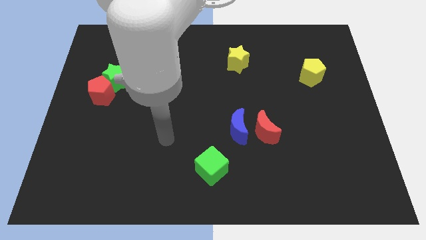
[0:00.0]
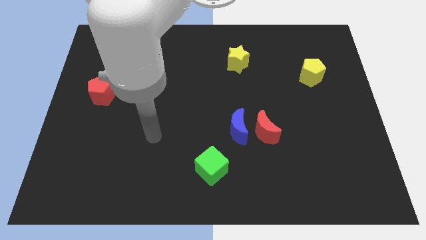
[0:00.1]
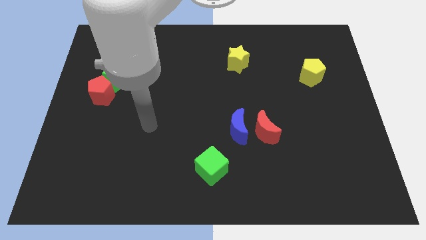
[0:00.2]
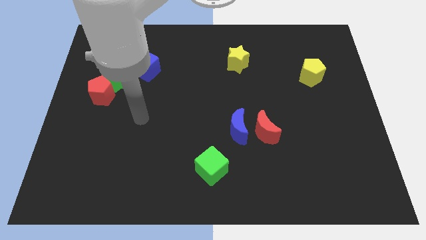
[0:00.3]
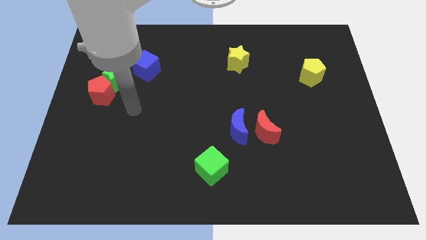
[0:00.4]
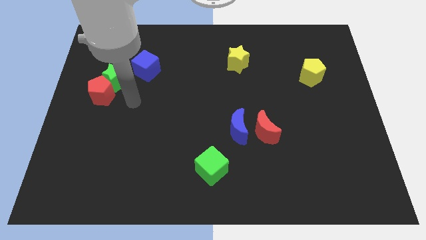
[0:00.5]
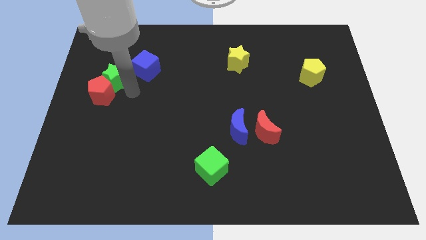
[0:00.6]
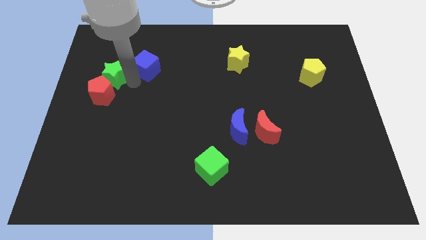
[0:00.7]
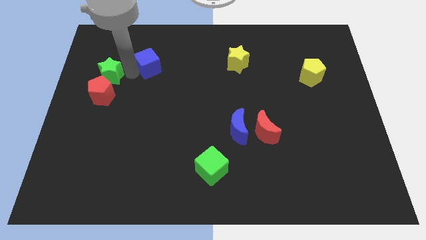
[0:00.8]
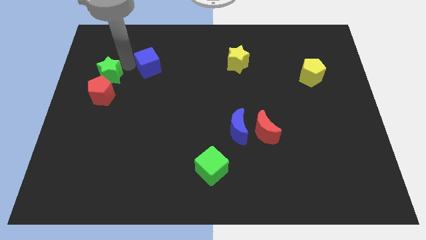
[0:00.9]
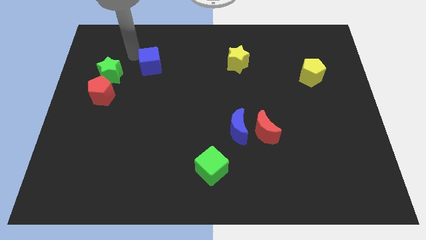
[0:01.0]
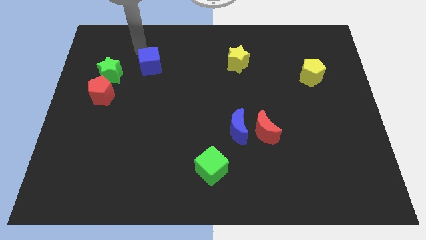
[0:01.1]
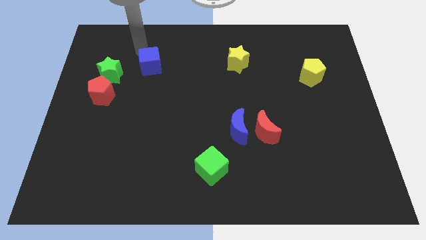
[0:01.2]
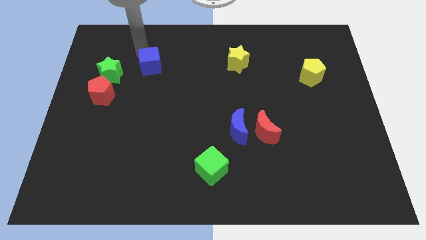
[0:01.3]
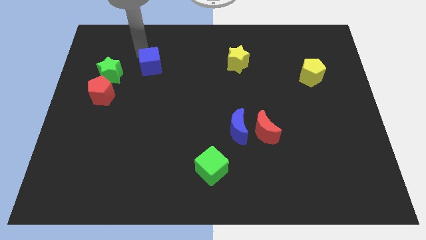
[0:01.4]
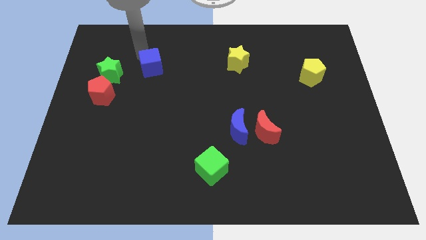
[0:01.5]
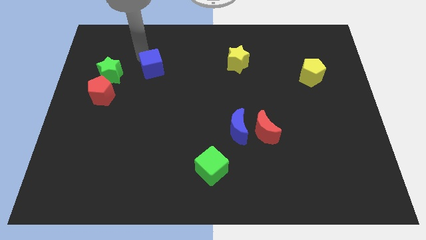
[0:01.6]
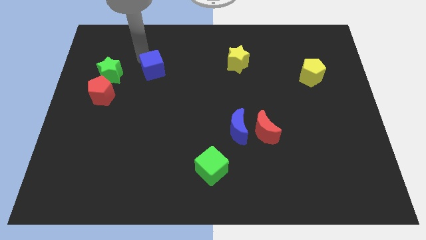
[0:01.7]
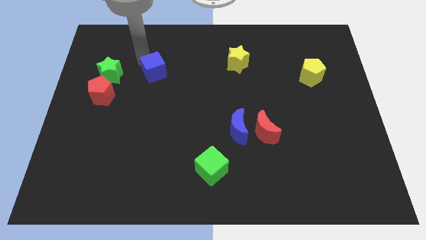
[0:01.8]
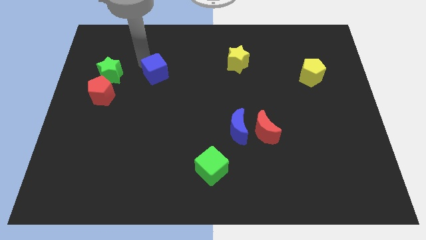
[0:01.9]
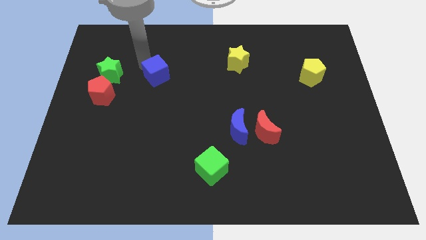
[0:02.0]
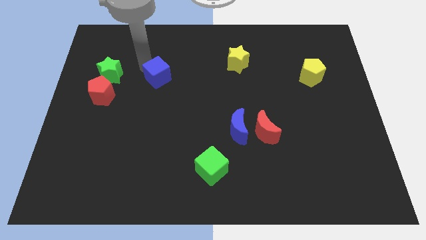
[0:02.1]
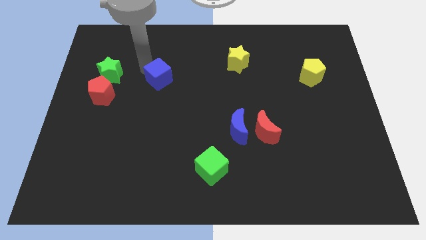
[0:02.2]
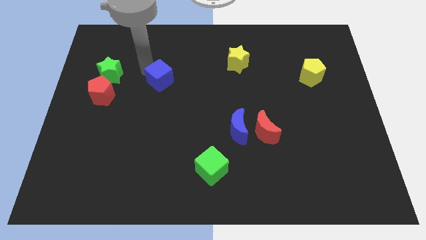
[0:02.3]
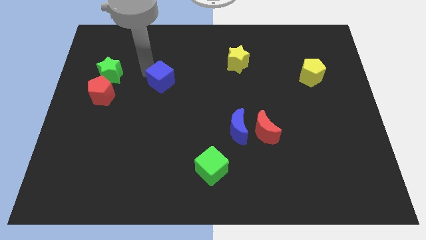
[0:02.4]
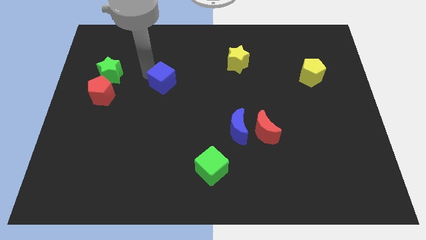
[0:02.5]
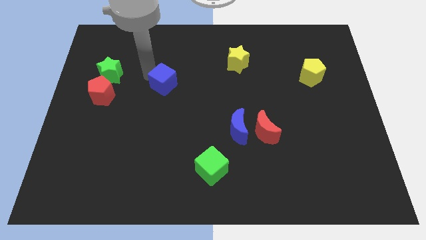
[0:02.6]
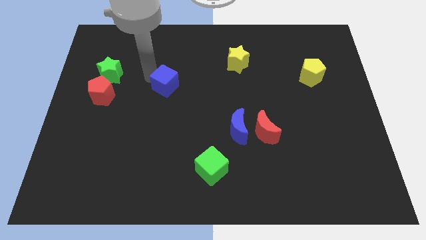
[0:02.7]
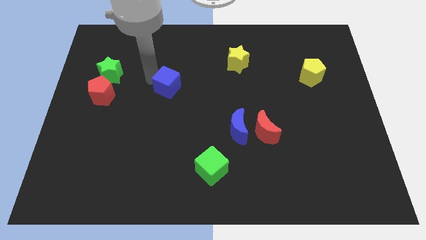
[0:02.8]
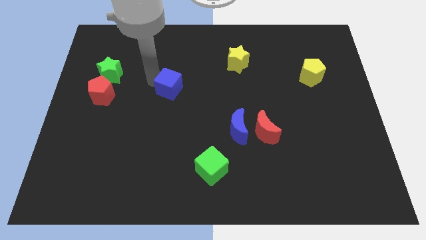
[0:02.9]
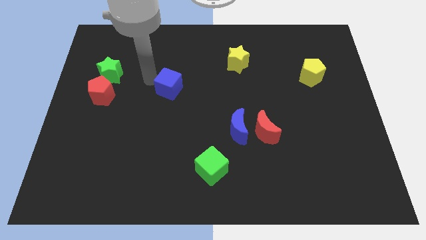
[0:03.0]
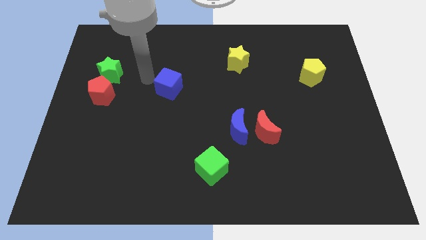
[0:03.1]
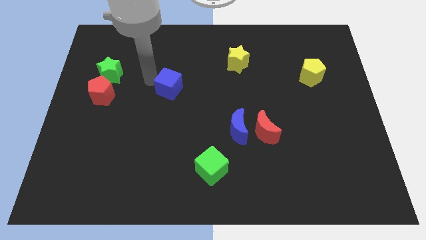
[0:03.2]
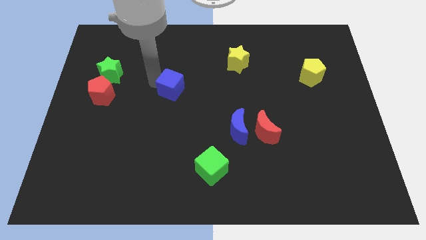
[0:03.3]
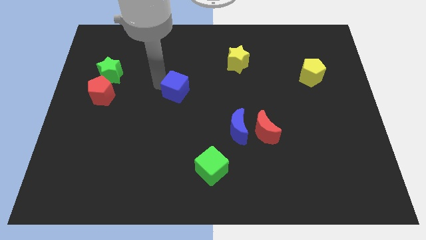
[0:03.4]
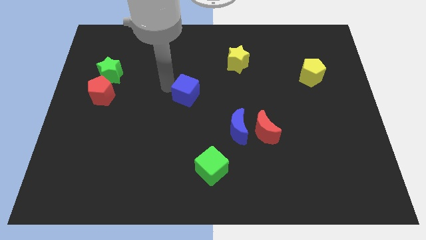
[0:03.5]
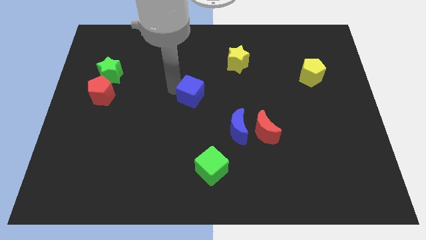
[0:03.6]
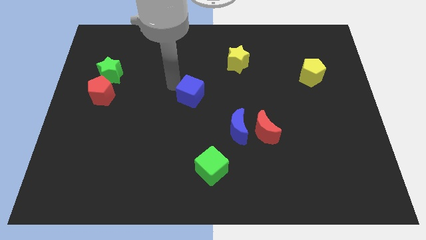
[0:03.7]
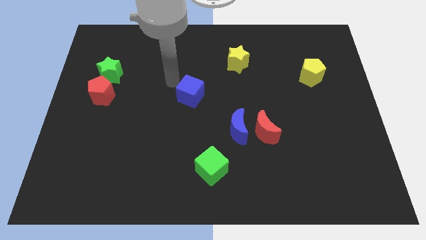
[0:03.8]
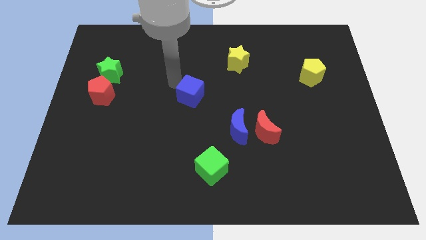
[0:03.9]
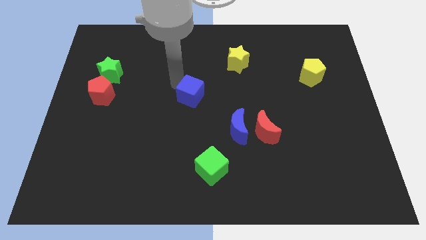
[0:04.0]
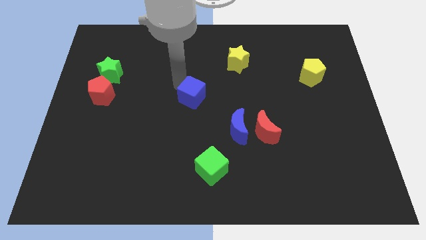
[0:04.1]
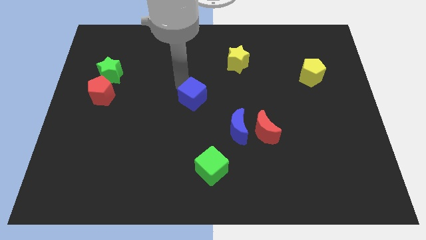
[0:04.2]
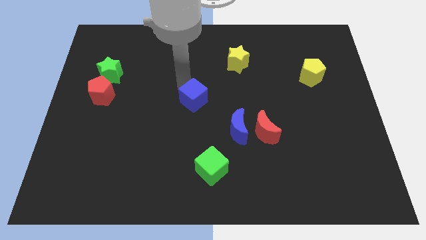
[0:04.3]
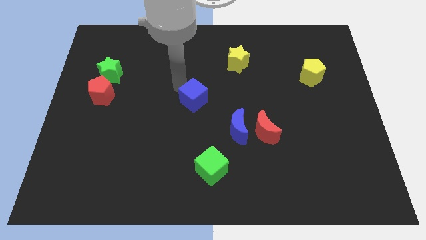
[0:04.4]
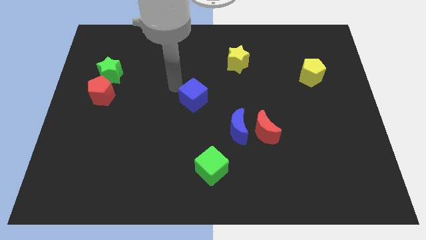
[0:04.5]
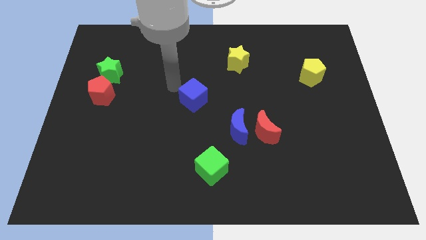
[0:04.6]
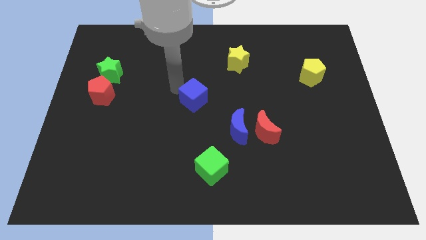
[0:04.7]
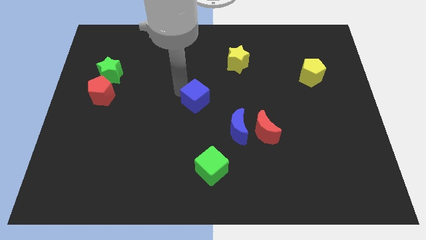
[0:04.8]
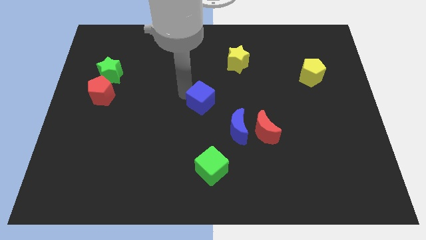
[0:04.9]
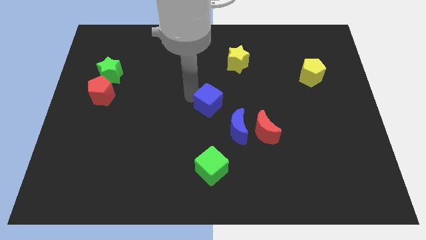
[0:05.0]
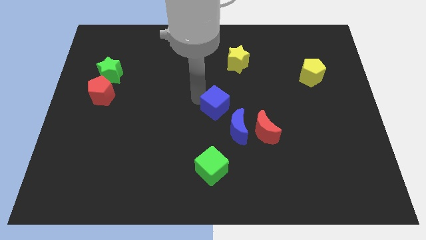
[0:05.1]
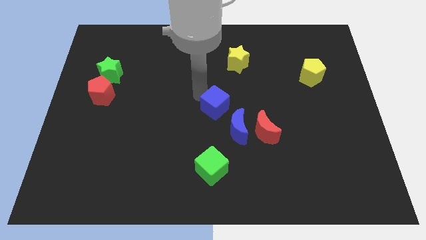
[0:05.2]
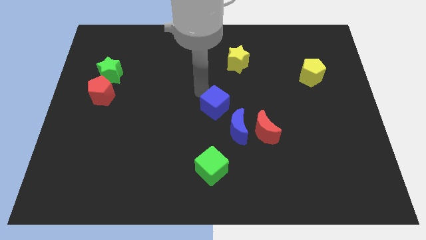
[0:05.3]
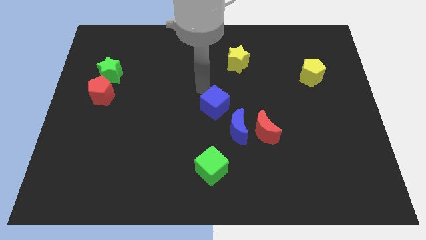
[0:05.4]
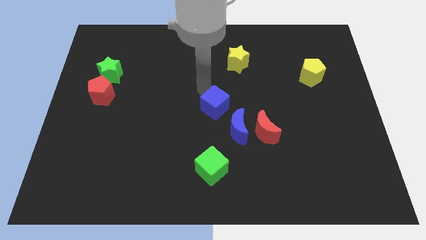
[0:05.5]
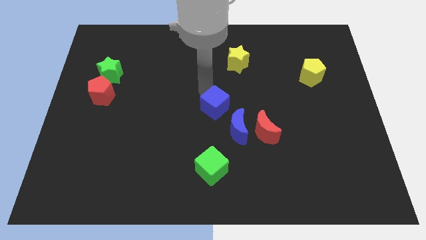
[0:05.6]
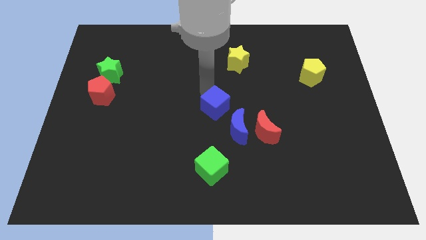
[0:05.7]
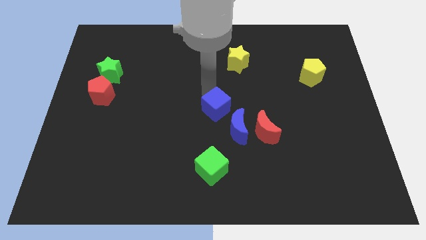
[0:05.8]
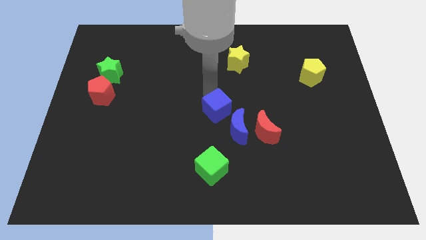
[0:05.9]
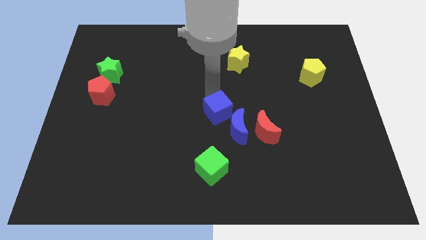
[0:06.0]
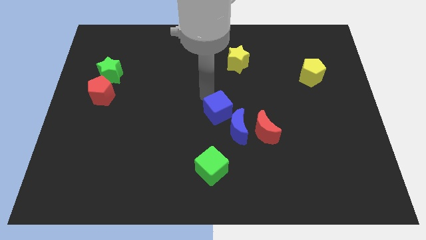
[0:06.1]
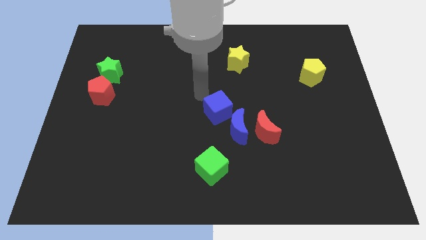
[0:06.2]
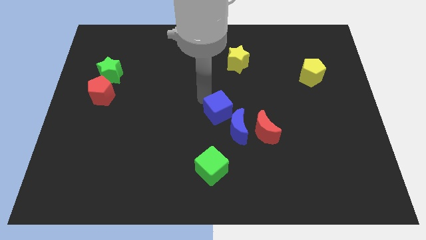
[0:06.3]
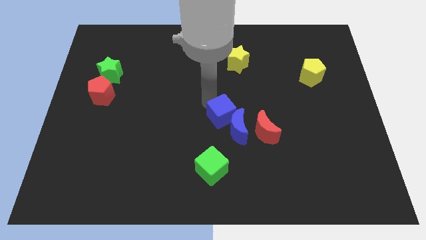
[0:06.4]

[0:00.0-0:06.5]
slide the blue cube close to the blue moon

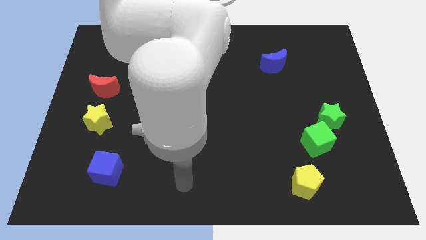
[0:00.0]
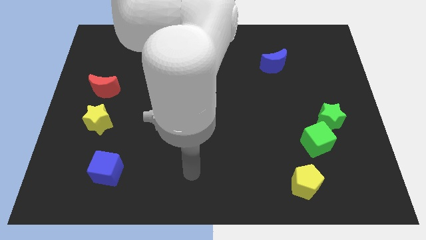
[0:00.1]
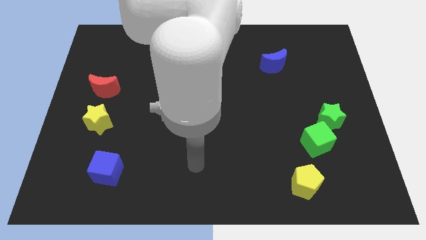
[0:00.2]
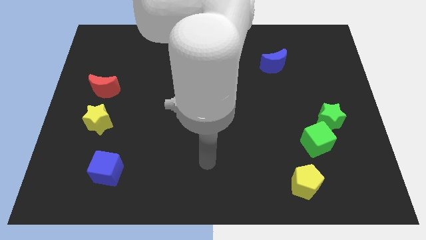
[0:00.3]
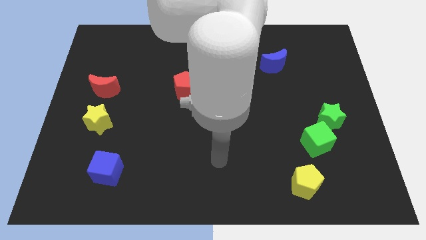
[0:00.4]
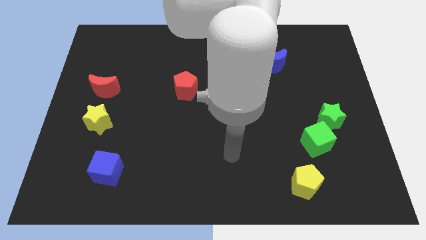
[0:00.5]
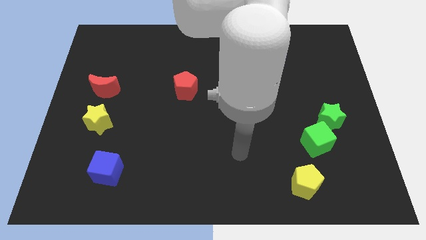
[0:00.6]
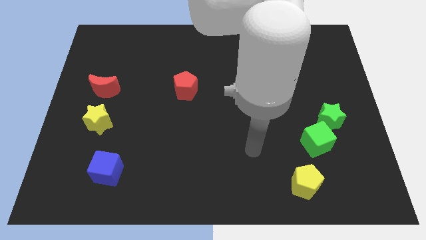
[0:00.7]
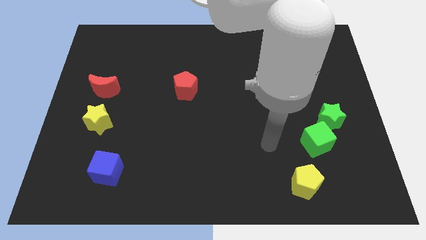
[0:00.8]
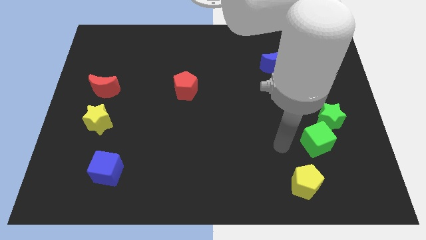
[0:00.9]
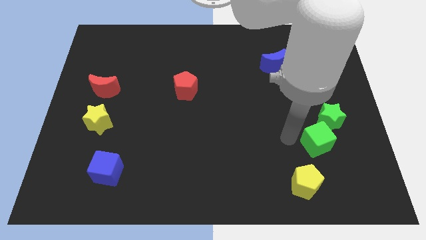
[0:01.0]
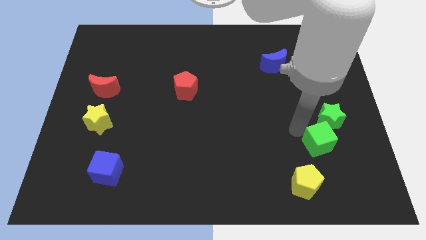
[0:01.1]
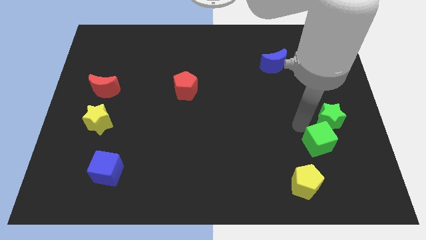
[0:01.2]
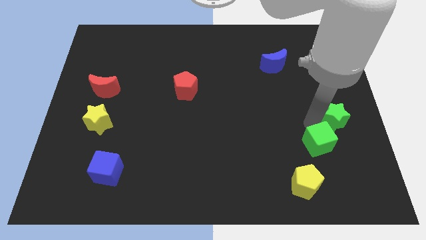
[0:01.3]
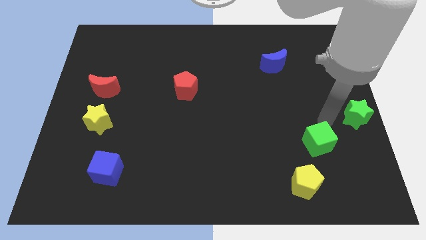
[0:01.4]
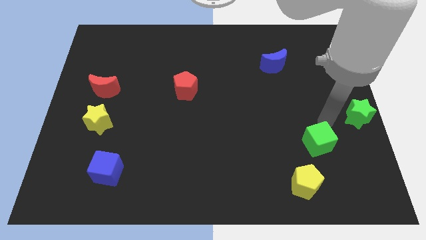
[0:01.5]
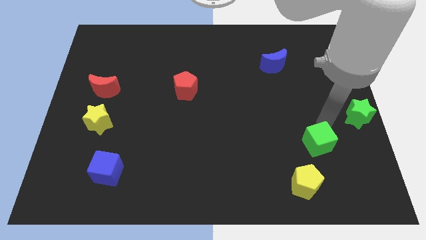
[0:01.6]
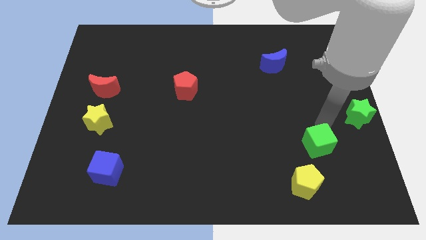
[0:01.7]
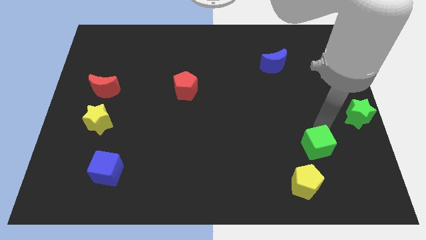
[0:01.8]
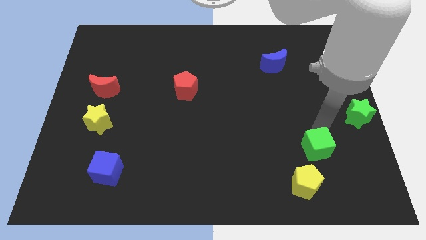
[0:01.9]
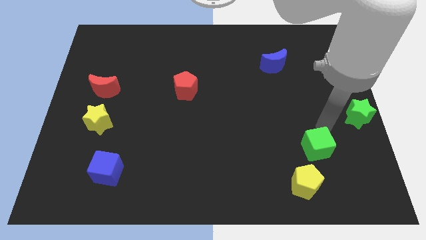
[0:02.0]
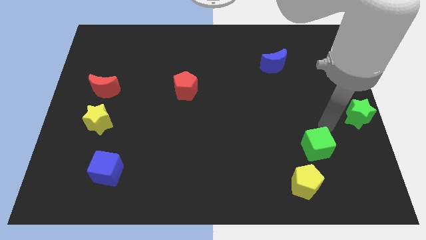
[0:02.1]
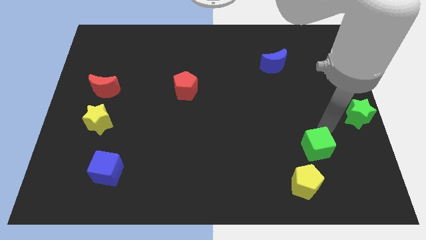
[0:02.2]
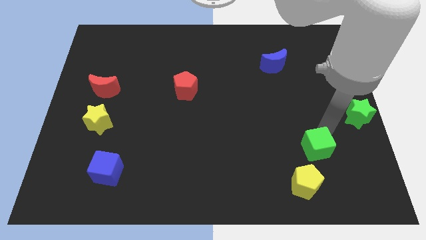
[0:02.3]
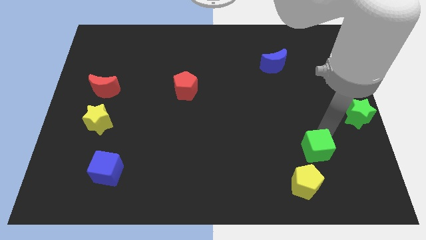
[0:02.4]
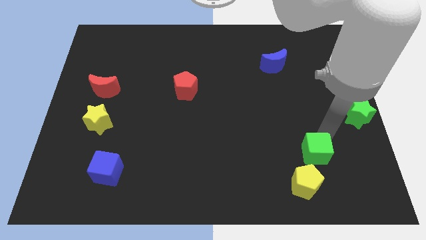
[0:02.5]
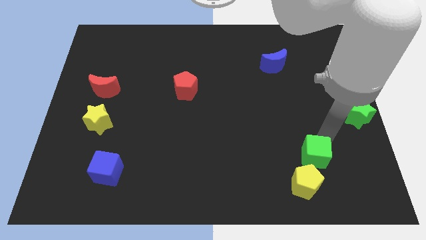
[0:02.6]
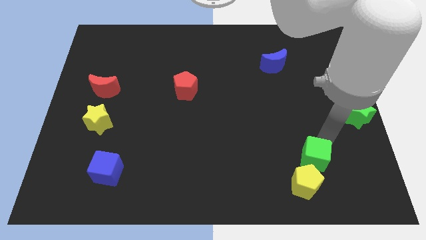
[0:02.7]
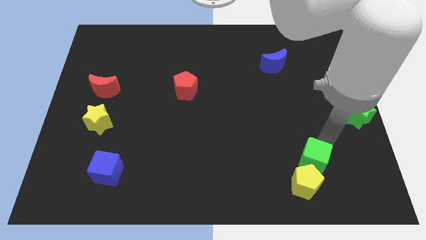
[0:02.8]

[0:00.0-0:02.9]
put the green cube close to the yellow pentagon
